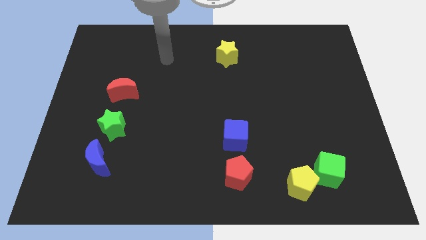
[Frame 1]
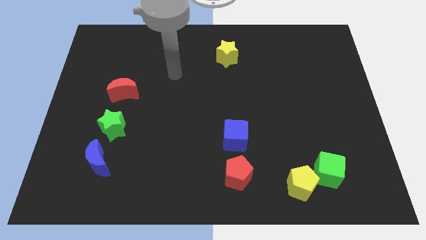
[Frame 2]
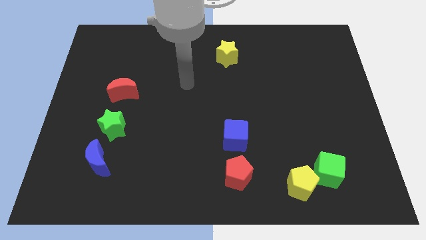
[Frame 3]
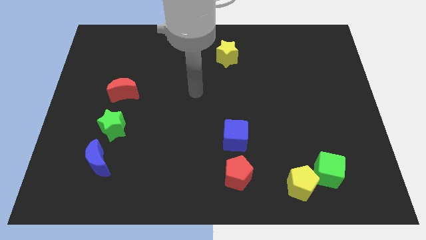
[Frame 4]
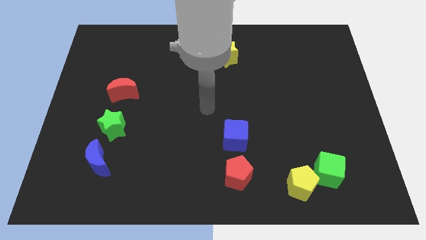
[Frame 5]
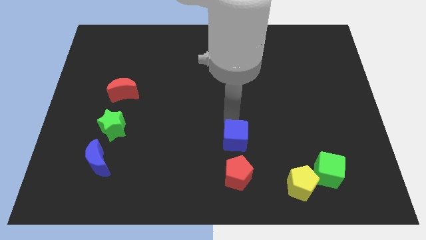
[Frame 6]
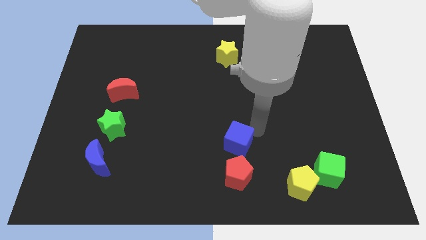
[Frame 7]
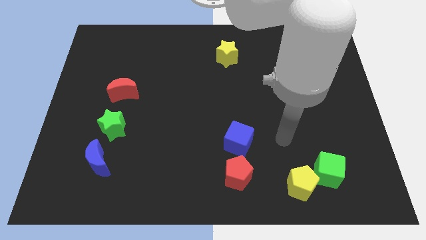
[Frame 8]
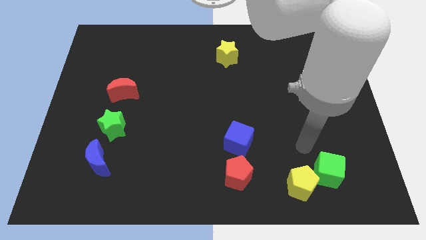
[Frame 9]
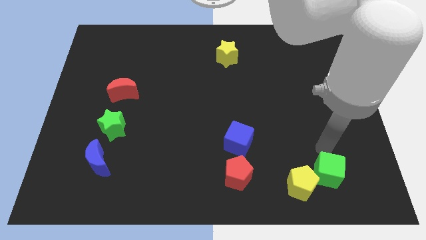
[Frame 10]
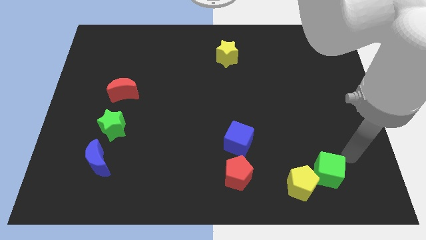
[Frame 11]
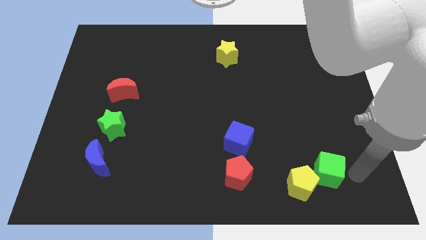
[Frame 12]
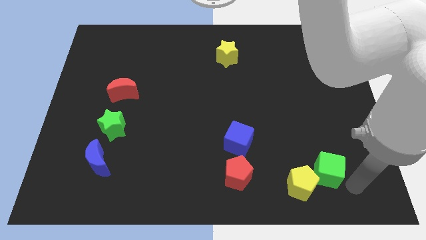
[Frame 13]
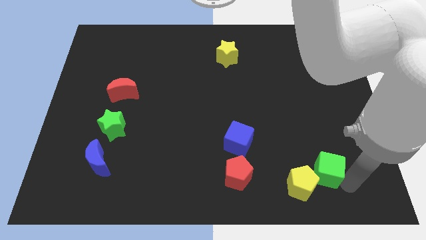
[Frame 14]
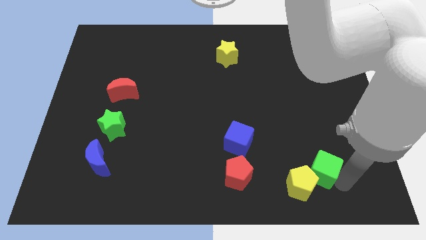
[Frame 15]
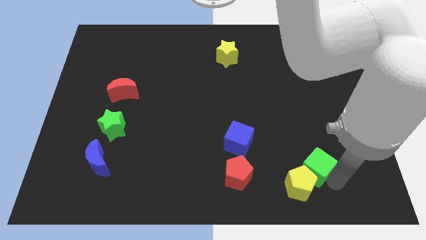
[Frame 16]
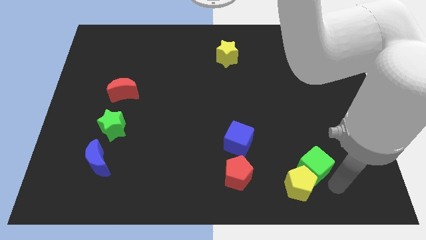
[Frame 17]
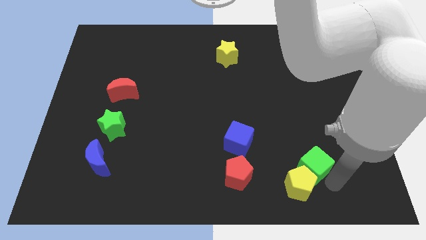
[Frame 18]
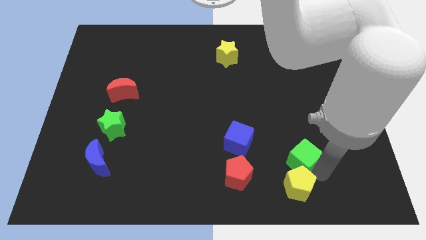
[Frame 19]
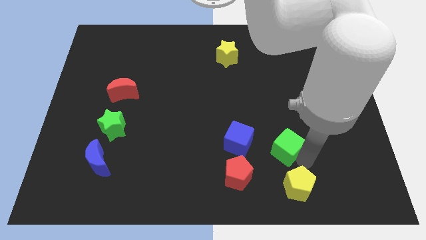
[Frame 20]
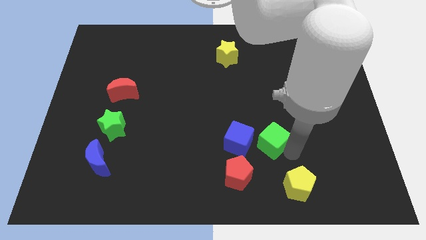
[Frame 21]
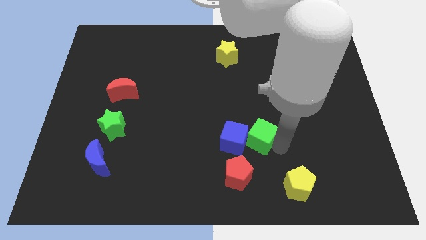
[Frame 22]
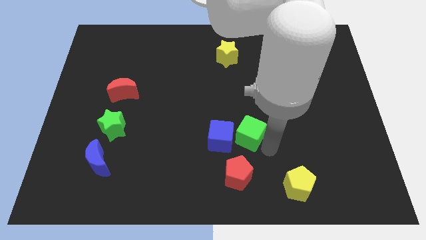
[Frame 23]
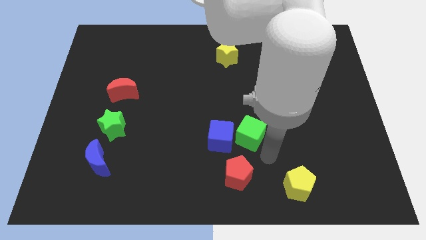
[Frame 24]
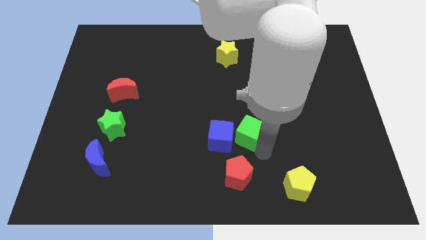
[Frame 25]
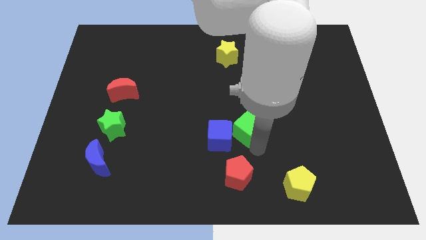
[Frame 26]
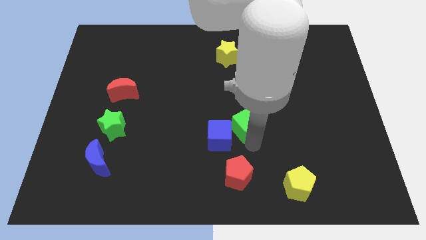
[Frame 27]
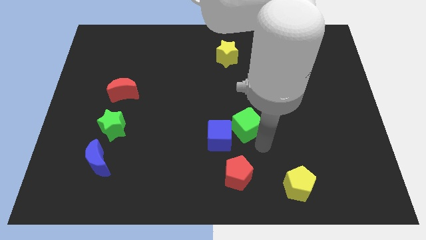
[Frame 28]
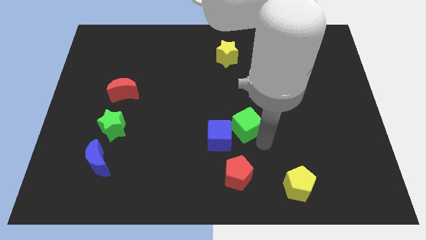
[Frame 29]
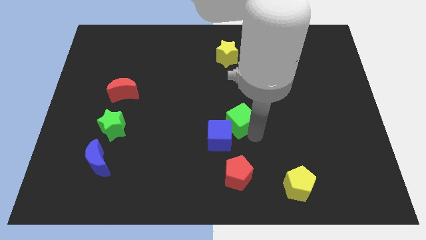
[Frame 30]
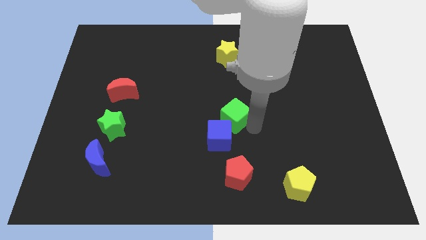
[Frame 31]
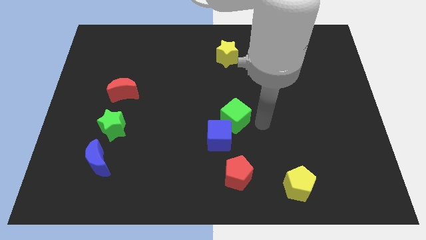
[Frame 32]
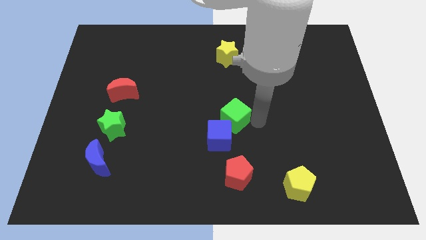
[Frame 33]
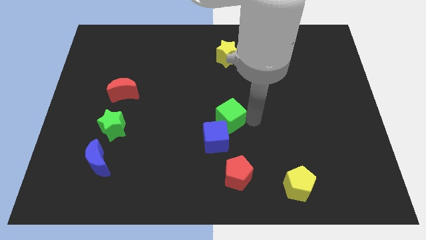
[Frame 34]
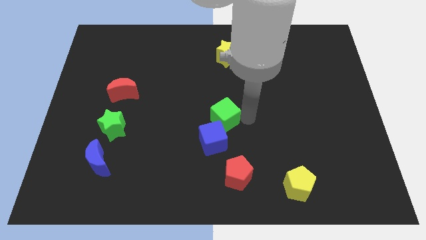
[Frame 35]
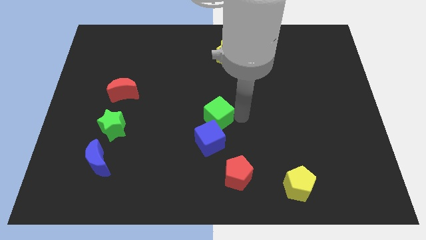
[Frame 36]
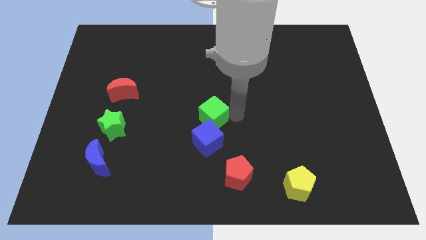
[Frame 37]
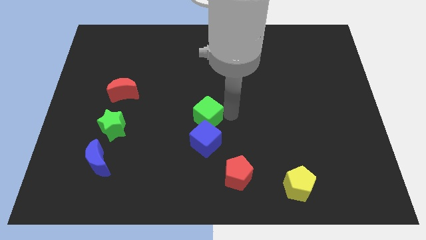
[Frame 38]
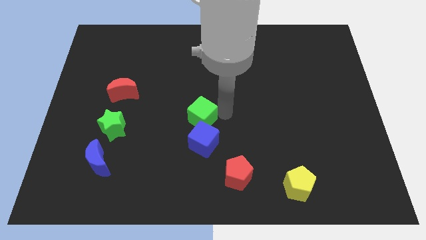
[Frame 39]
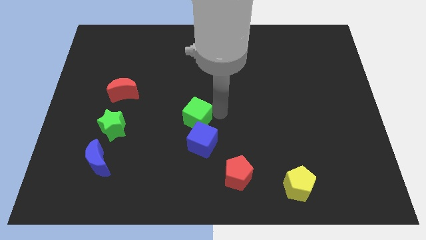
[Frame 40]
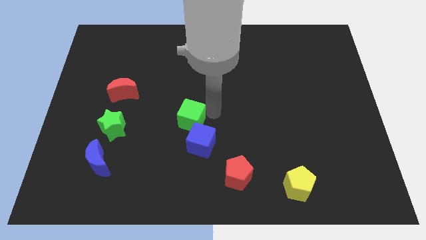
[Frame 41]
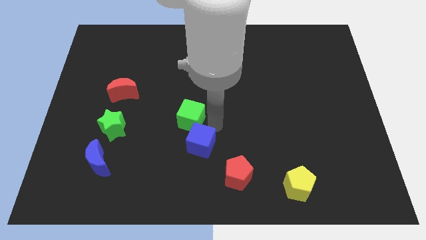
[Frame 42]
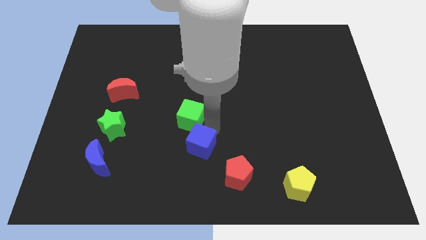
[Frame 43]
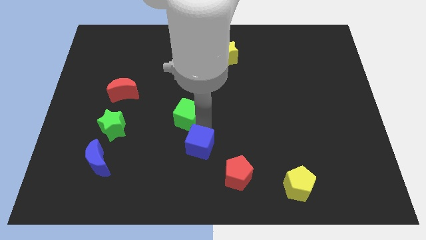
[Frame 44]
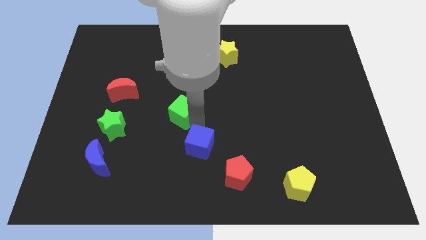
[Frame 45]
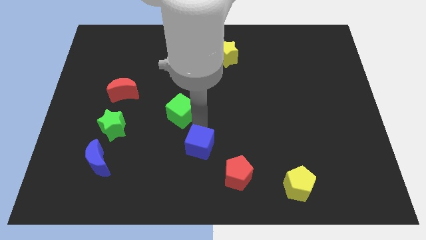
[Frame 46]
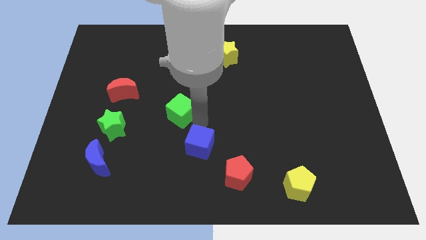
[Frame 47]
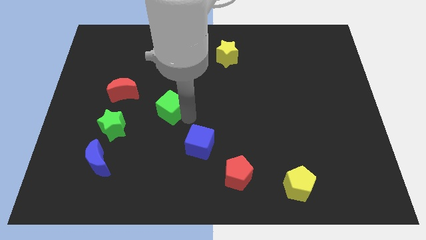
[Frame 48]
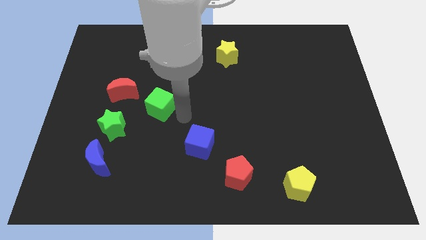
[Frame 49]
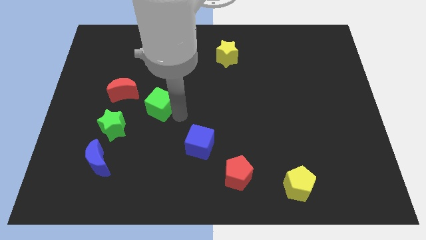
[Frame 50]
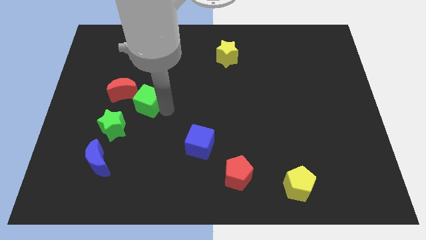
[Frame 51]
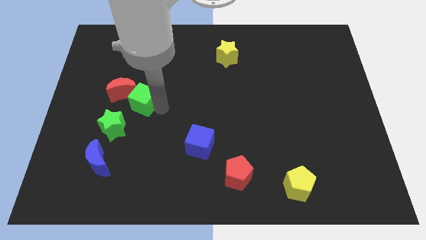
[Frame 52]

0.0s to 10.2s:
slide the green cube towards the red moon

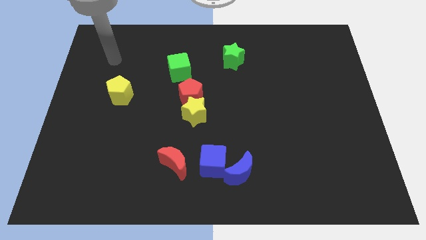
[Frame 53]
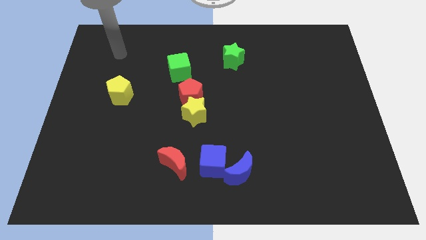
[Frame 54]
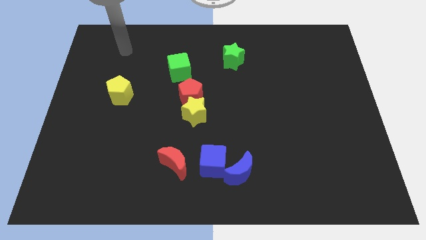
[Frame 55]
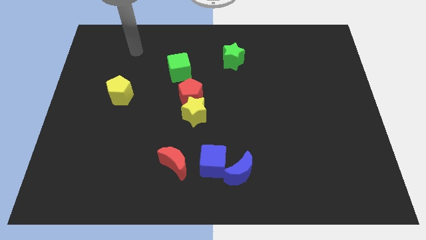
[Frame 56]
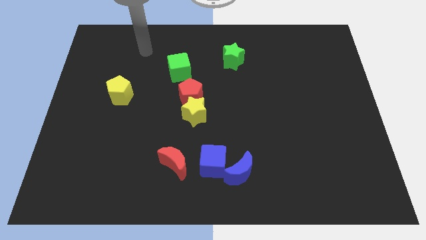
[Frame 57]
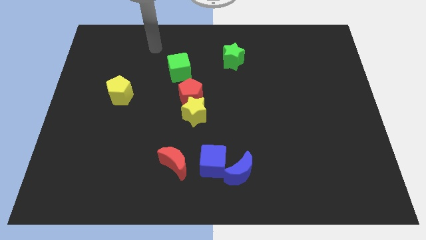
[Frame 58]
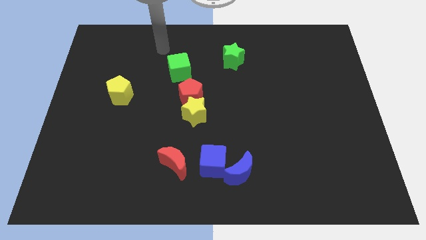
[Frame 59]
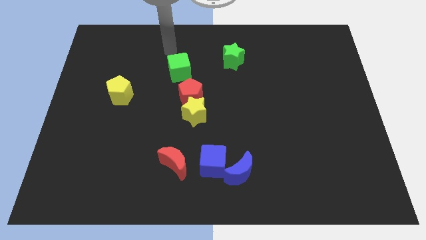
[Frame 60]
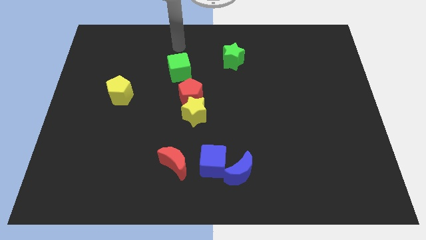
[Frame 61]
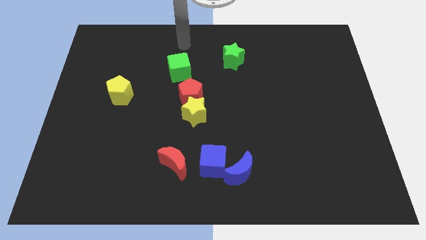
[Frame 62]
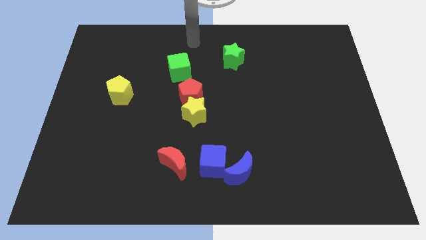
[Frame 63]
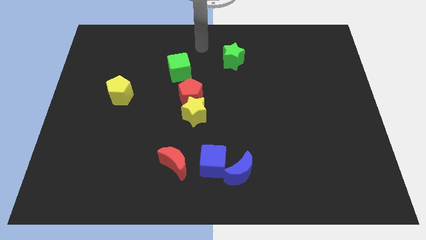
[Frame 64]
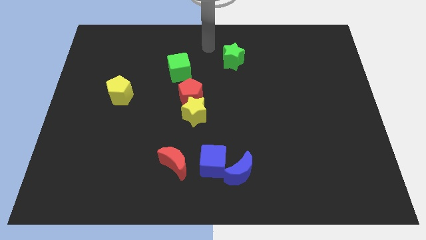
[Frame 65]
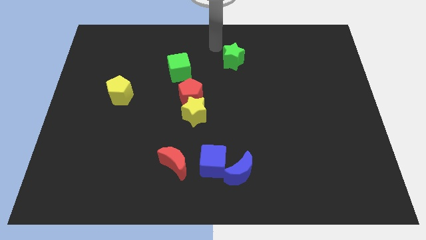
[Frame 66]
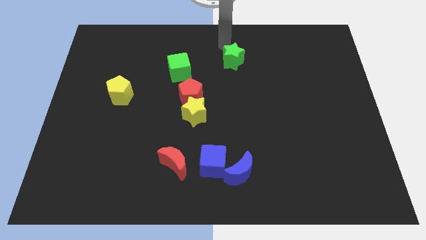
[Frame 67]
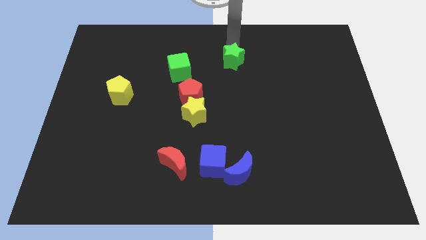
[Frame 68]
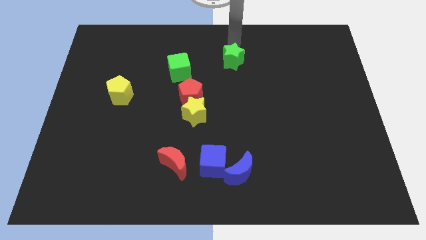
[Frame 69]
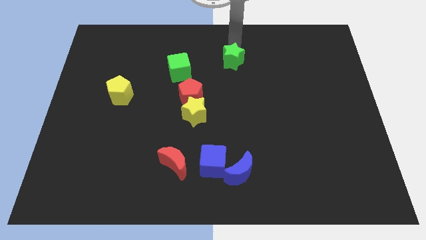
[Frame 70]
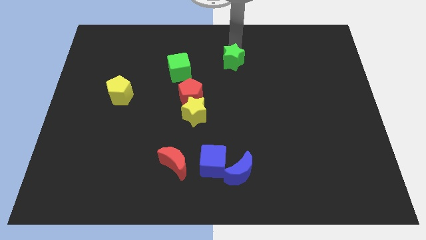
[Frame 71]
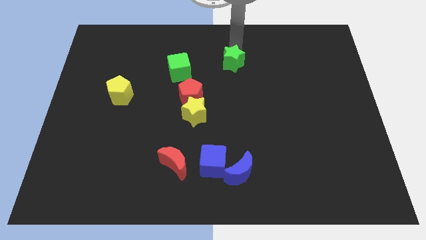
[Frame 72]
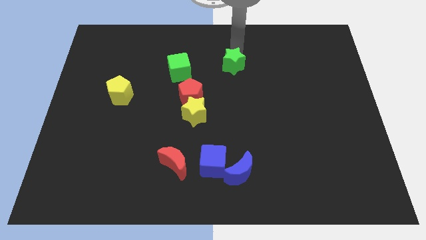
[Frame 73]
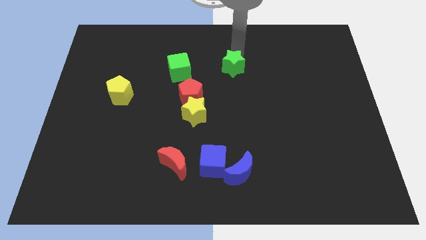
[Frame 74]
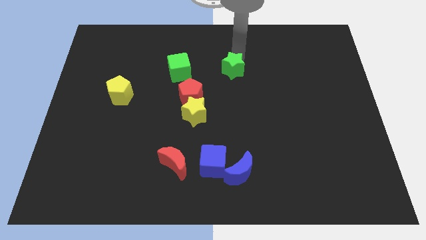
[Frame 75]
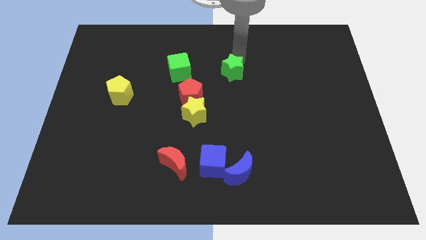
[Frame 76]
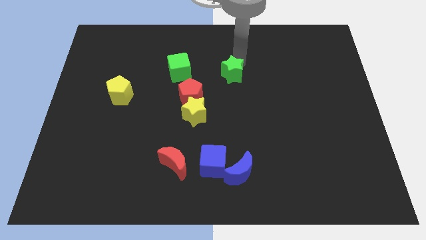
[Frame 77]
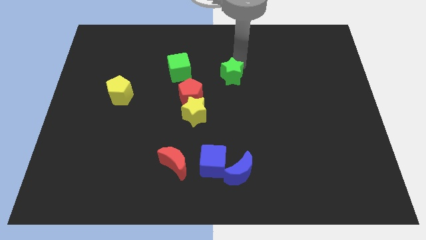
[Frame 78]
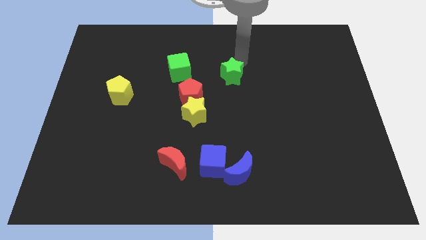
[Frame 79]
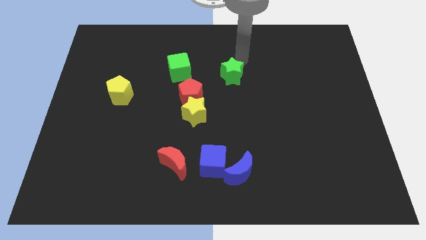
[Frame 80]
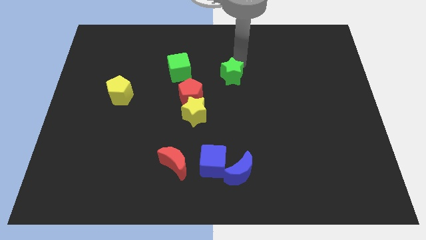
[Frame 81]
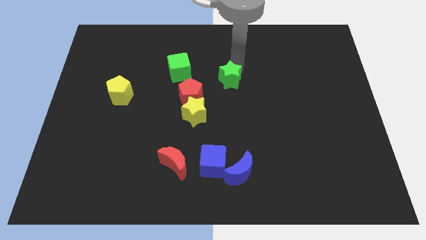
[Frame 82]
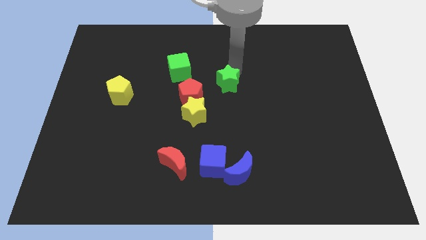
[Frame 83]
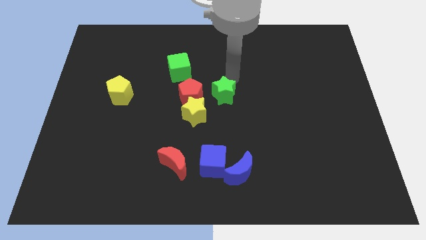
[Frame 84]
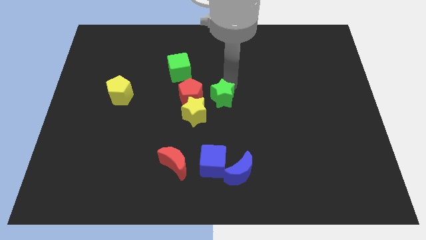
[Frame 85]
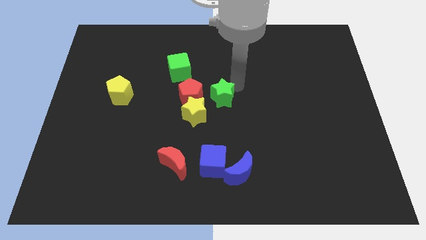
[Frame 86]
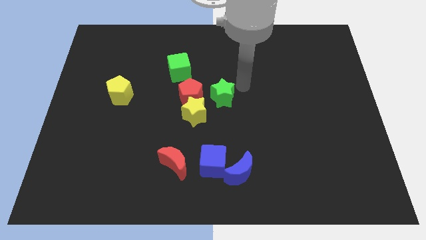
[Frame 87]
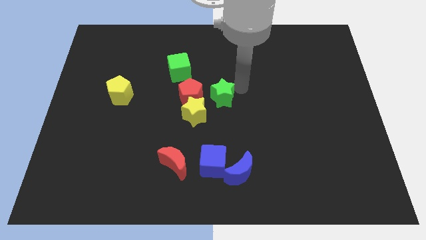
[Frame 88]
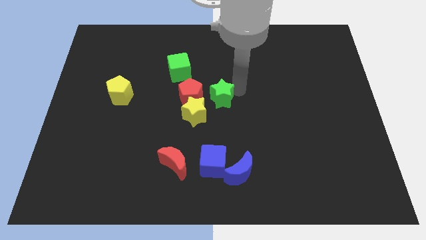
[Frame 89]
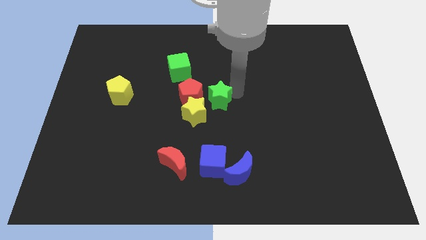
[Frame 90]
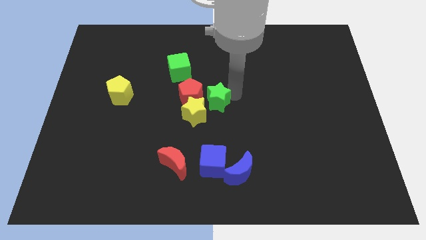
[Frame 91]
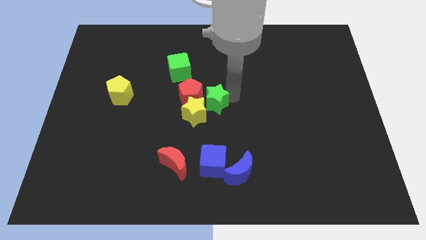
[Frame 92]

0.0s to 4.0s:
move the green star next to the yellow star
